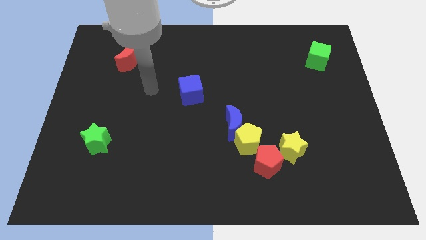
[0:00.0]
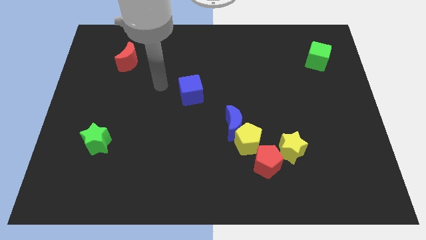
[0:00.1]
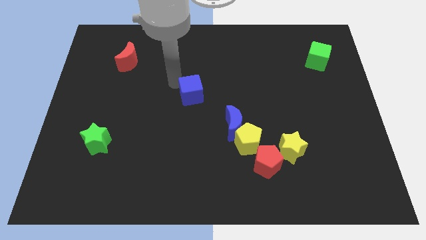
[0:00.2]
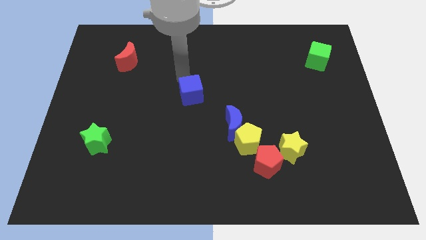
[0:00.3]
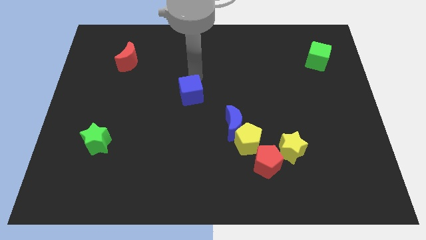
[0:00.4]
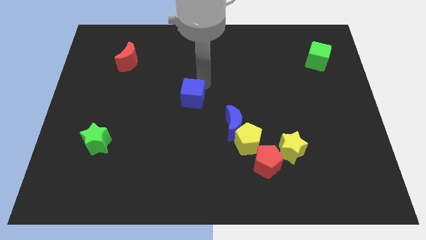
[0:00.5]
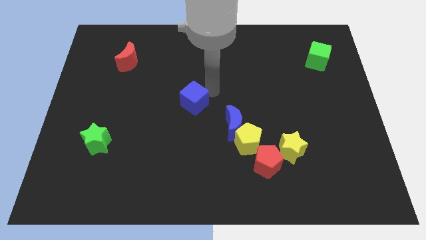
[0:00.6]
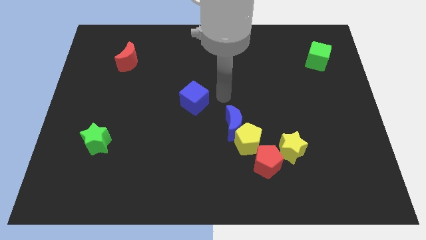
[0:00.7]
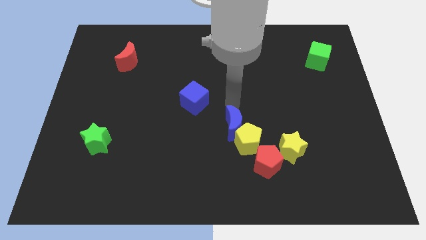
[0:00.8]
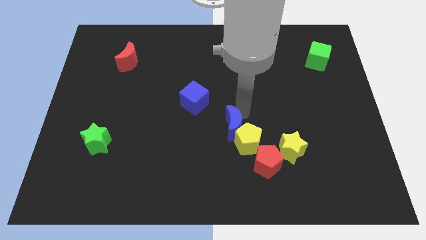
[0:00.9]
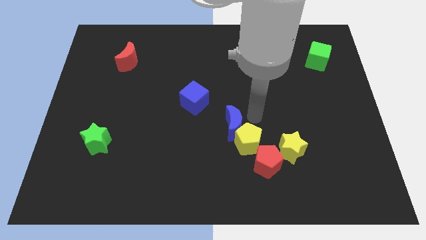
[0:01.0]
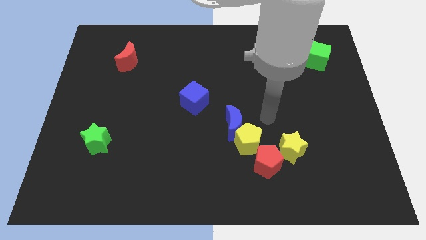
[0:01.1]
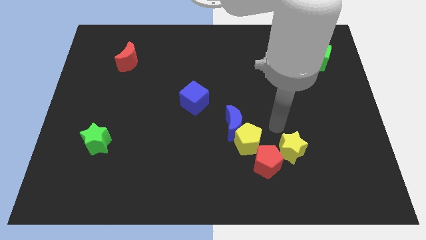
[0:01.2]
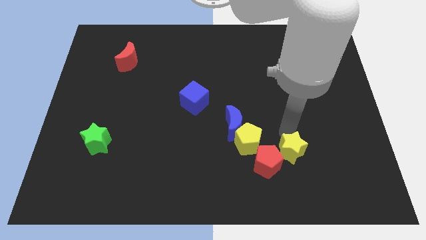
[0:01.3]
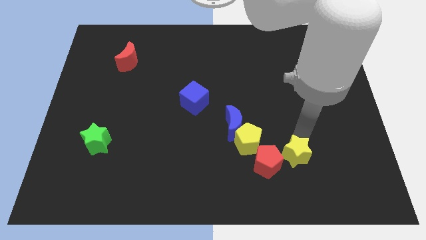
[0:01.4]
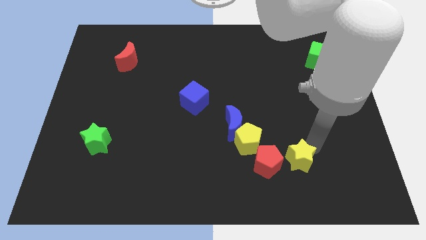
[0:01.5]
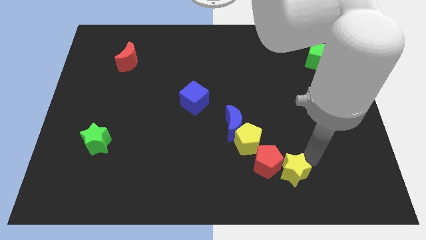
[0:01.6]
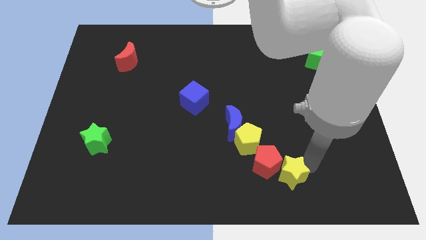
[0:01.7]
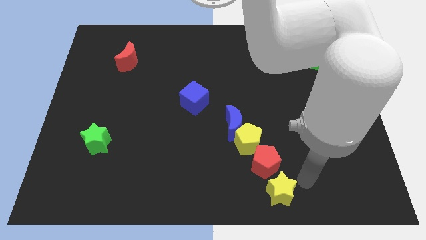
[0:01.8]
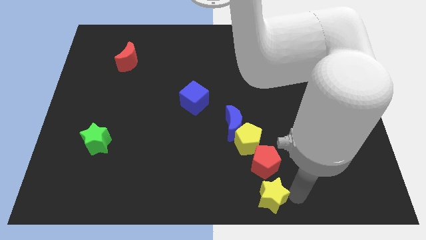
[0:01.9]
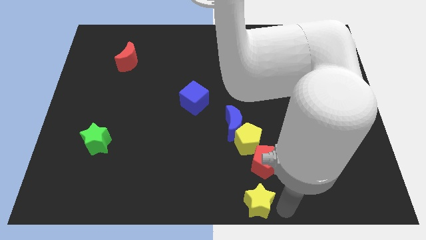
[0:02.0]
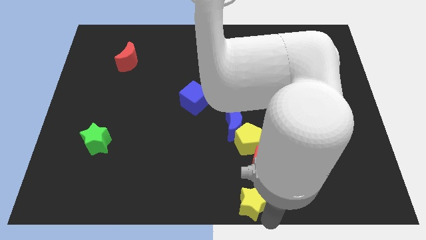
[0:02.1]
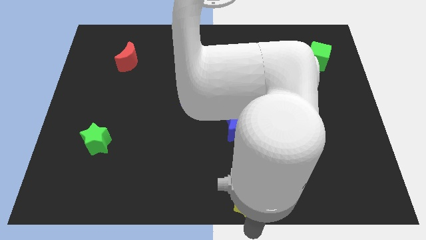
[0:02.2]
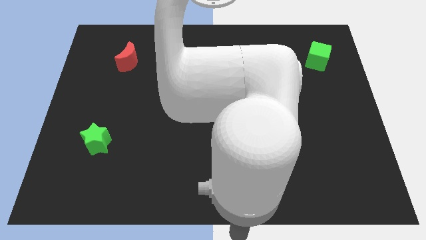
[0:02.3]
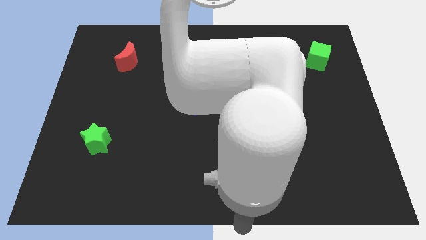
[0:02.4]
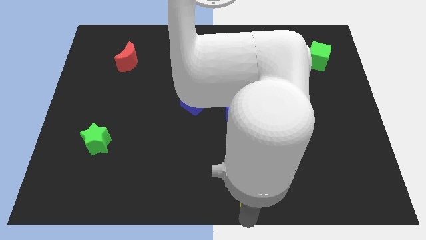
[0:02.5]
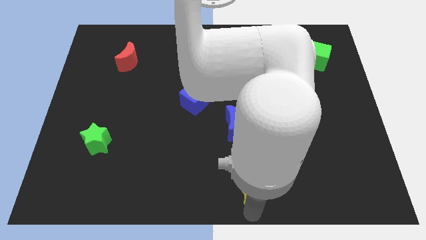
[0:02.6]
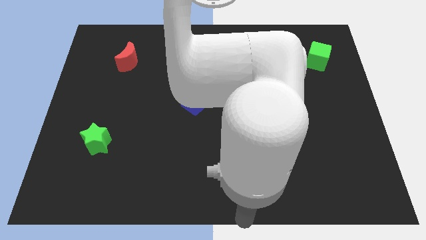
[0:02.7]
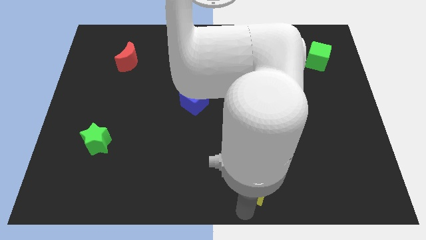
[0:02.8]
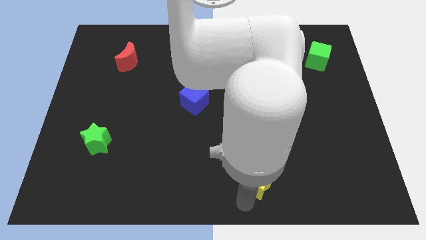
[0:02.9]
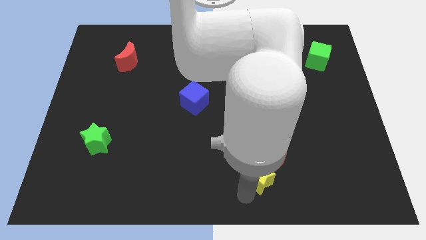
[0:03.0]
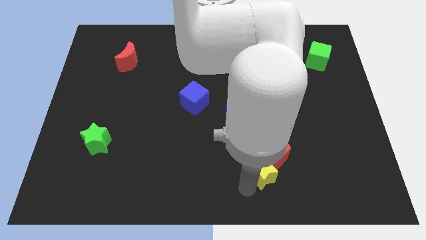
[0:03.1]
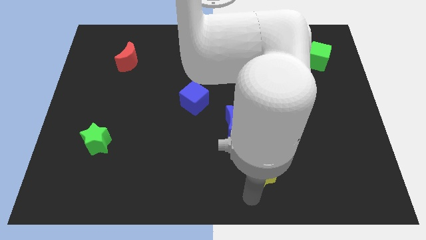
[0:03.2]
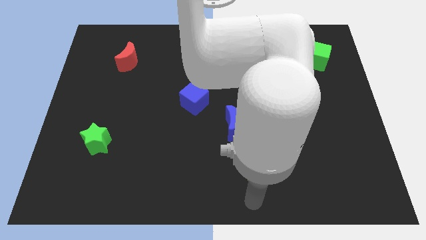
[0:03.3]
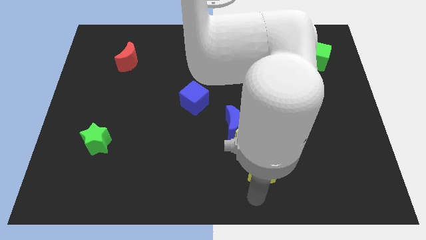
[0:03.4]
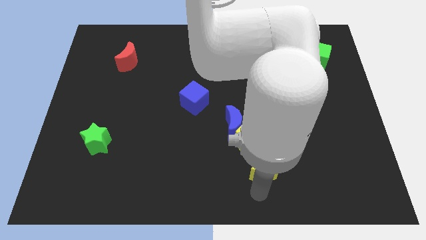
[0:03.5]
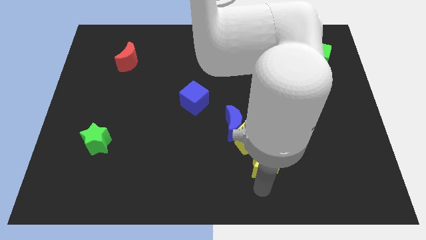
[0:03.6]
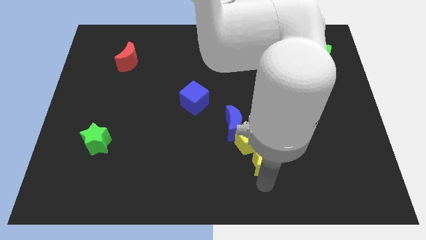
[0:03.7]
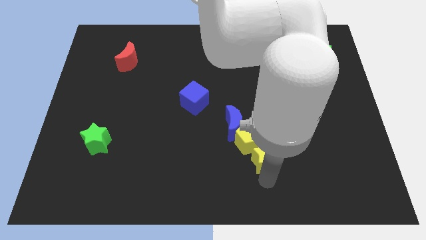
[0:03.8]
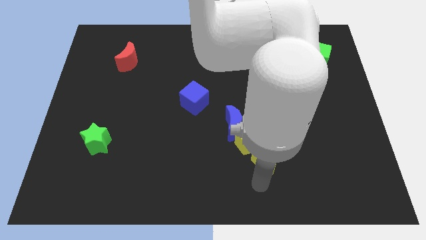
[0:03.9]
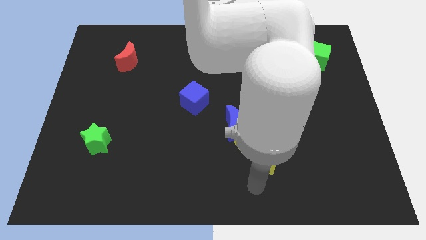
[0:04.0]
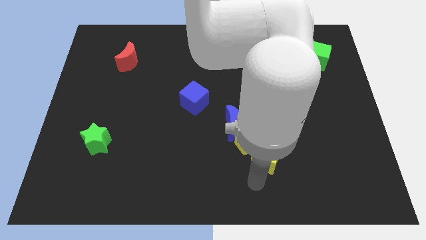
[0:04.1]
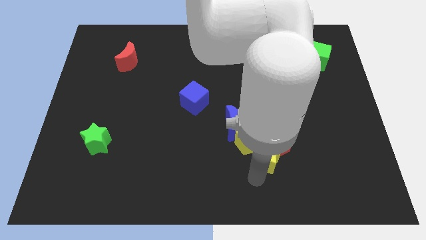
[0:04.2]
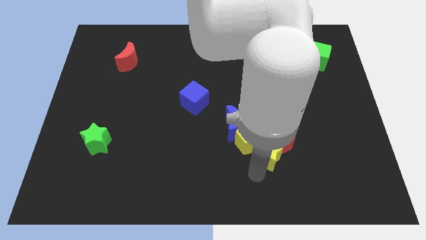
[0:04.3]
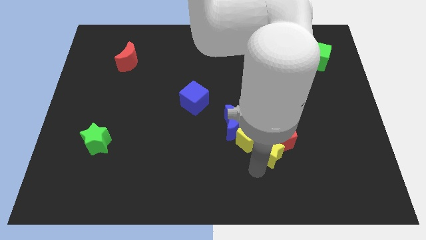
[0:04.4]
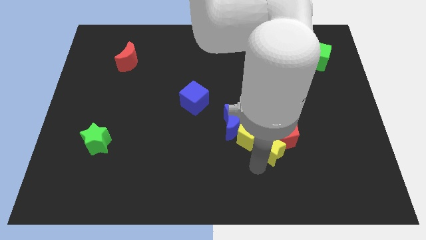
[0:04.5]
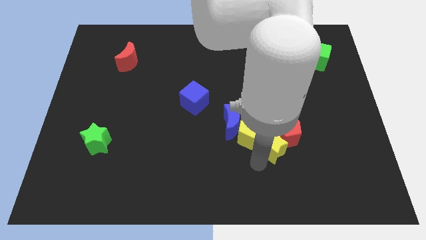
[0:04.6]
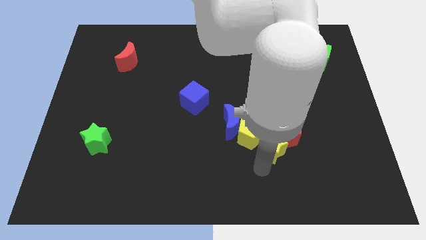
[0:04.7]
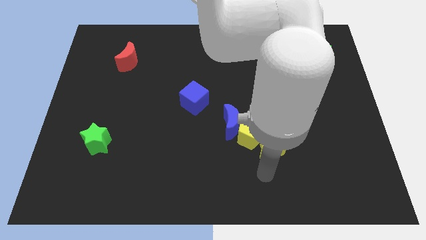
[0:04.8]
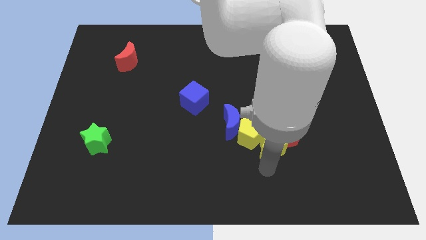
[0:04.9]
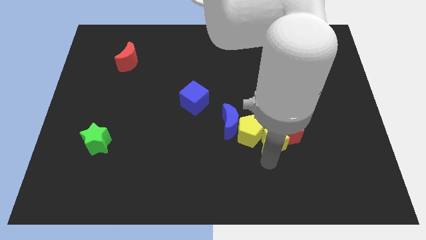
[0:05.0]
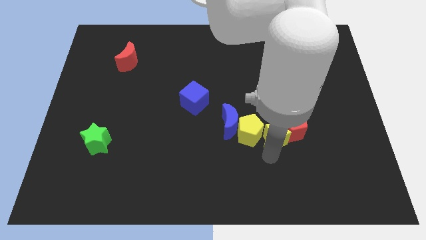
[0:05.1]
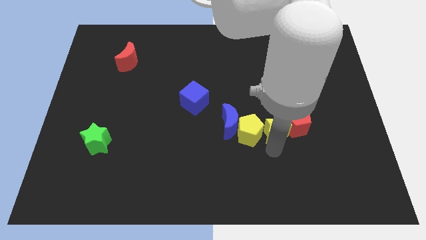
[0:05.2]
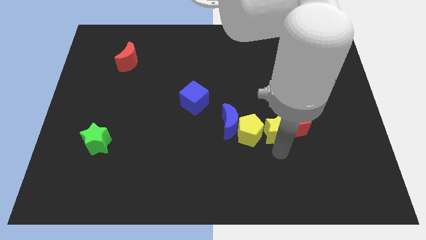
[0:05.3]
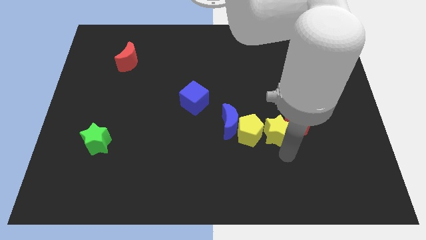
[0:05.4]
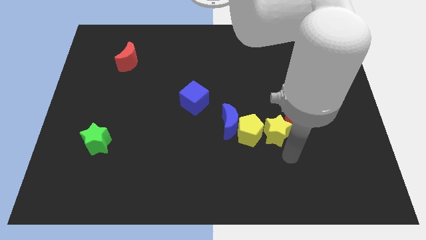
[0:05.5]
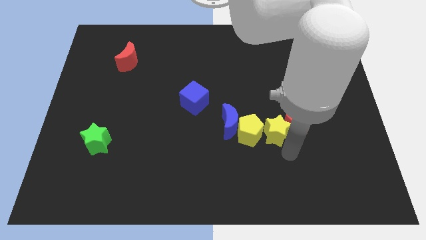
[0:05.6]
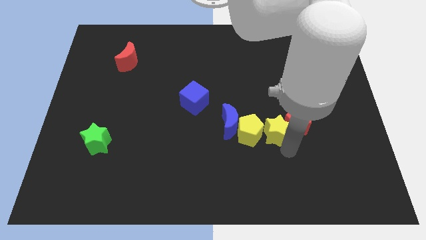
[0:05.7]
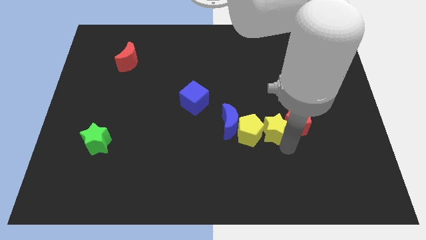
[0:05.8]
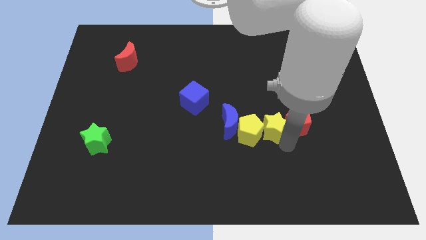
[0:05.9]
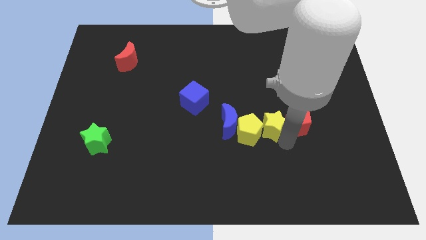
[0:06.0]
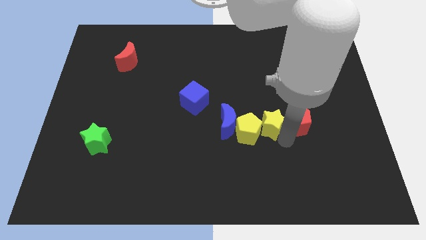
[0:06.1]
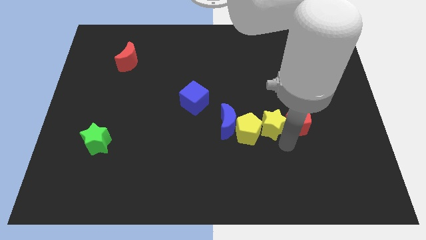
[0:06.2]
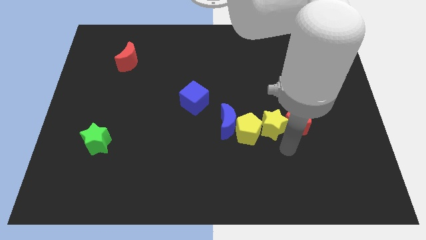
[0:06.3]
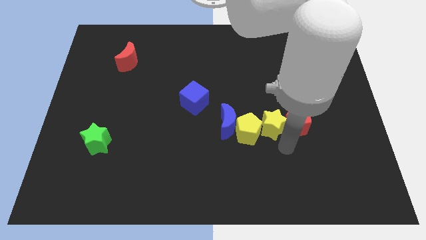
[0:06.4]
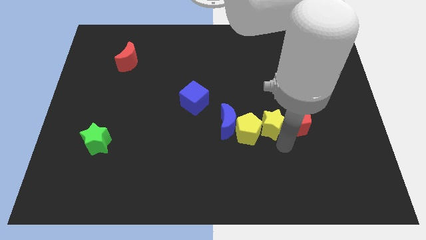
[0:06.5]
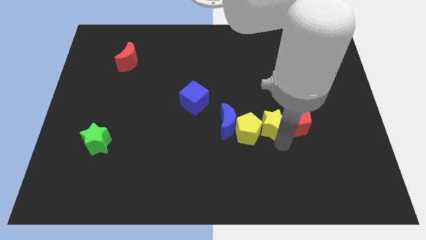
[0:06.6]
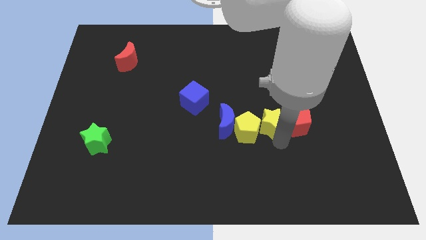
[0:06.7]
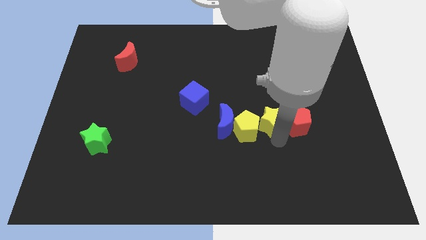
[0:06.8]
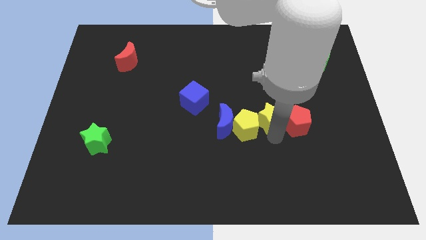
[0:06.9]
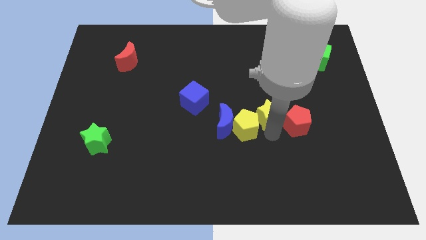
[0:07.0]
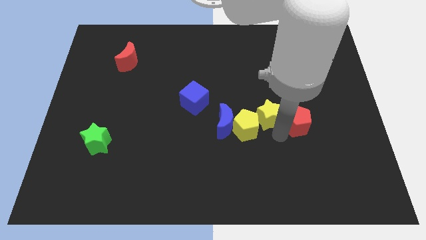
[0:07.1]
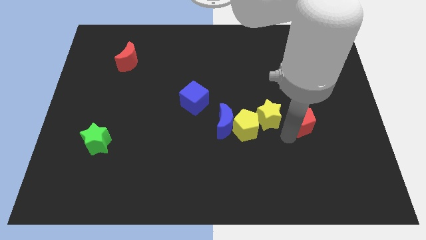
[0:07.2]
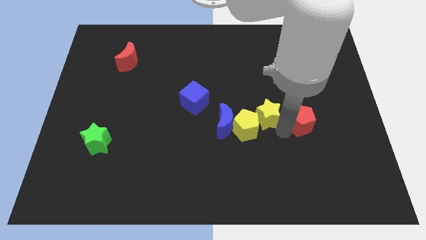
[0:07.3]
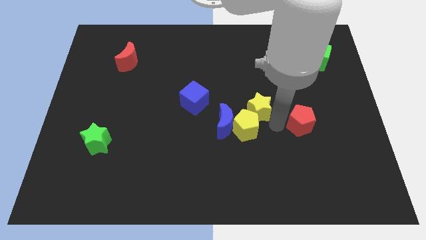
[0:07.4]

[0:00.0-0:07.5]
move the yellow star to the top side of the yellow pentagon

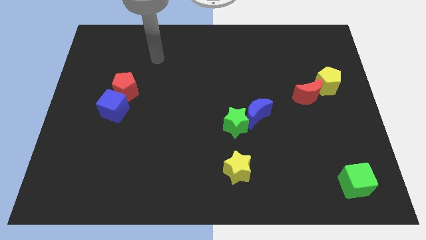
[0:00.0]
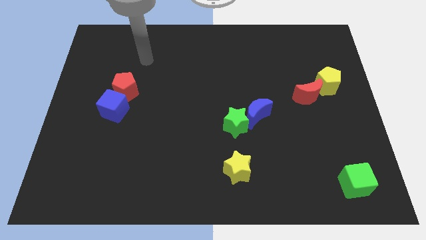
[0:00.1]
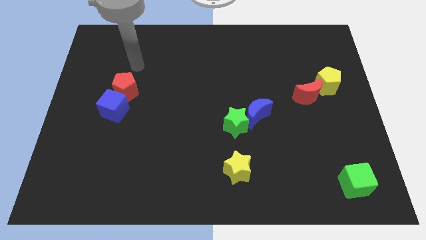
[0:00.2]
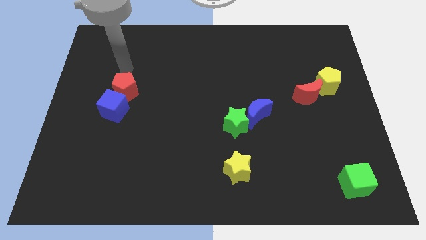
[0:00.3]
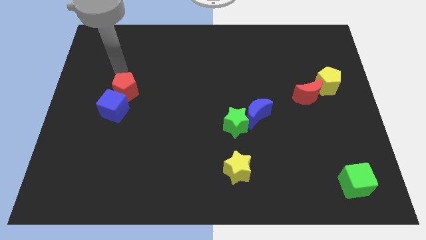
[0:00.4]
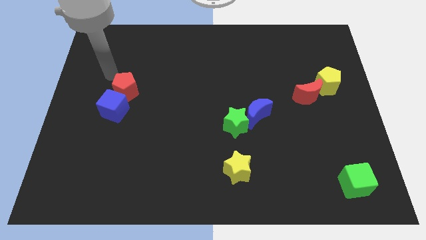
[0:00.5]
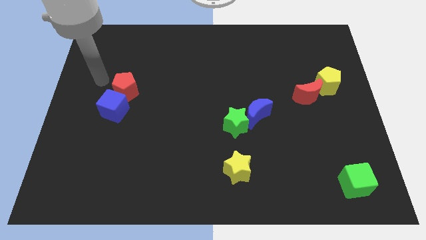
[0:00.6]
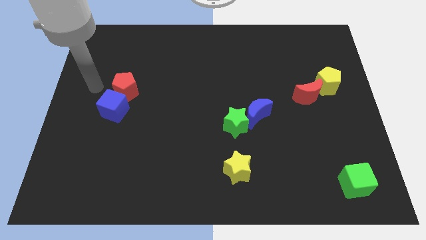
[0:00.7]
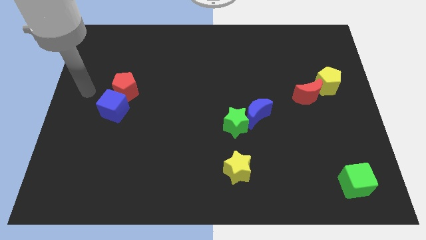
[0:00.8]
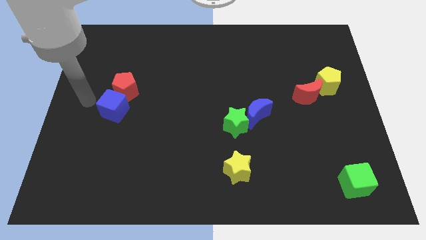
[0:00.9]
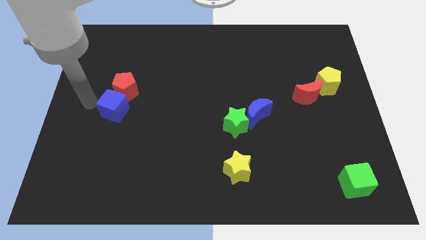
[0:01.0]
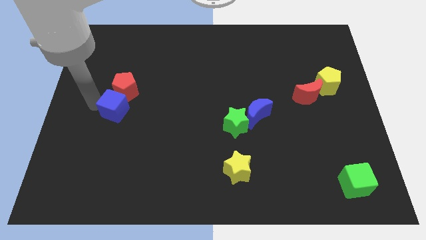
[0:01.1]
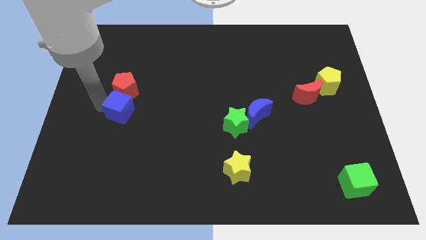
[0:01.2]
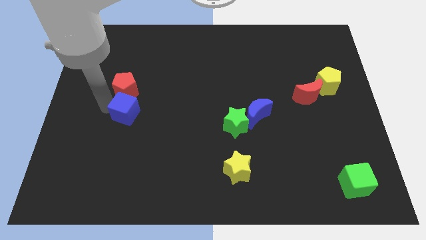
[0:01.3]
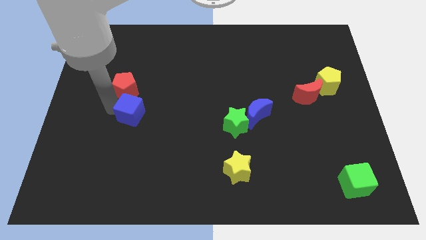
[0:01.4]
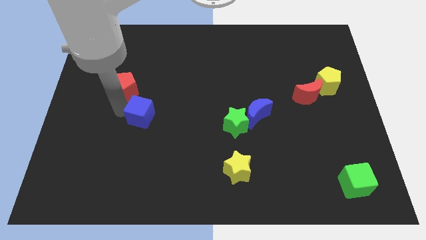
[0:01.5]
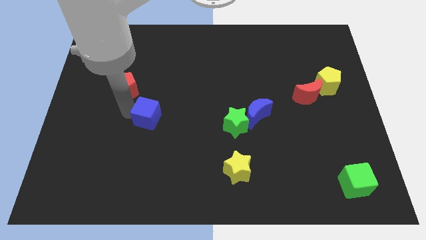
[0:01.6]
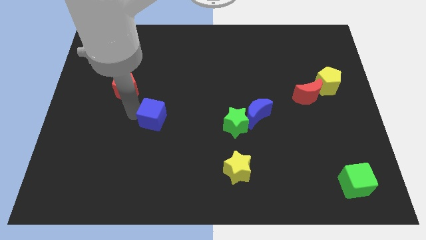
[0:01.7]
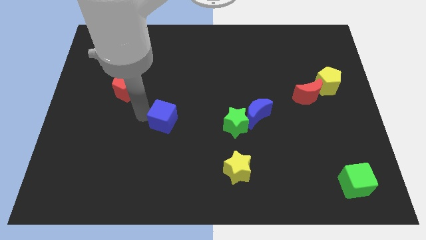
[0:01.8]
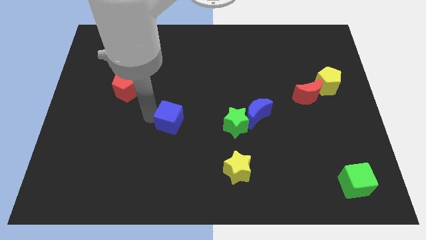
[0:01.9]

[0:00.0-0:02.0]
slide the blue cube to the left of the green star
